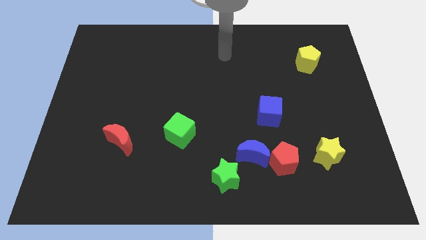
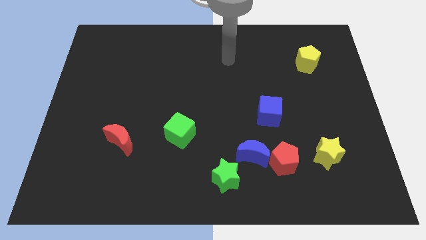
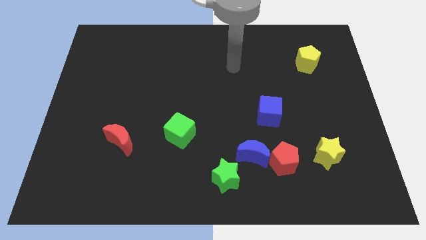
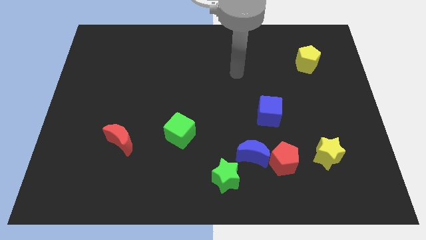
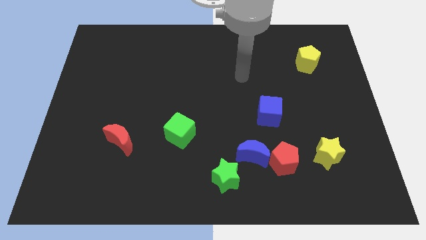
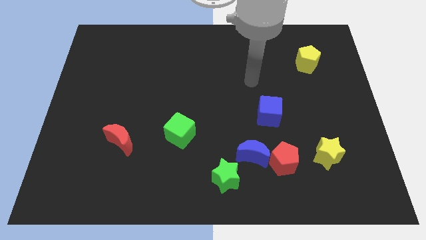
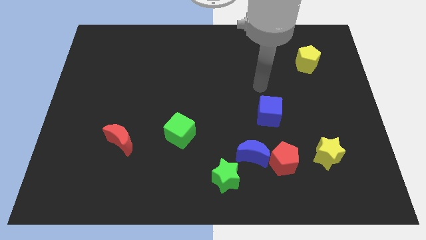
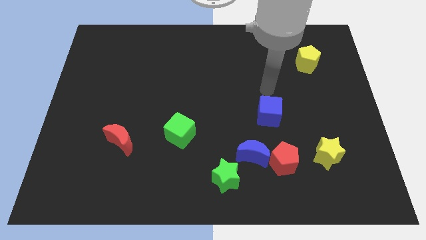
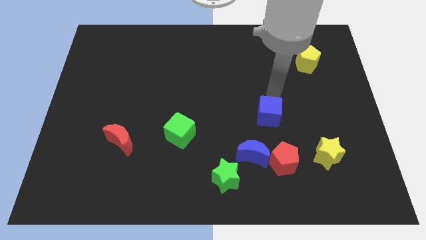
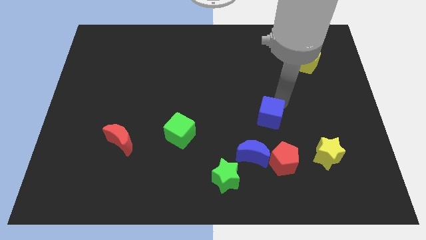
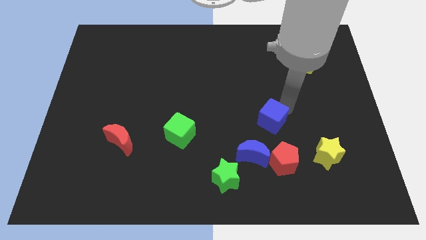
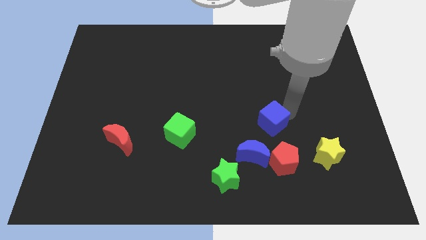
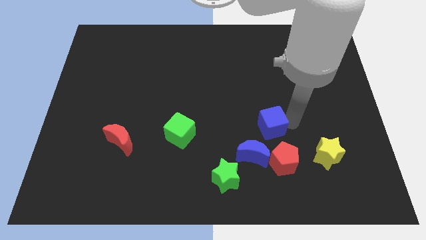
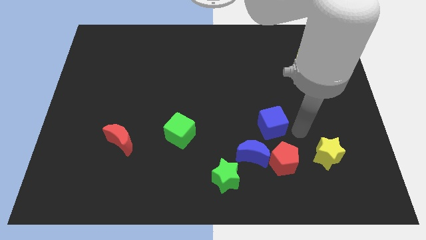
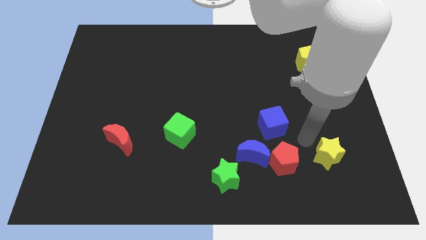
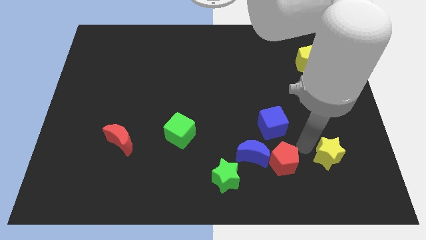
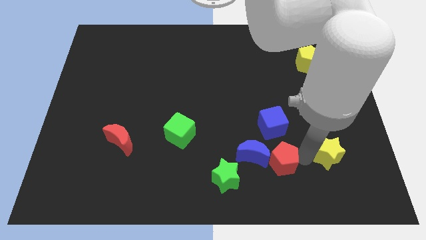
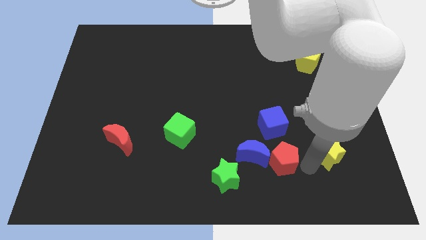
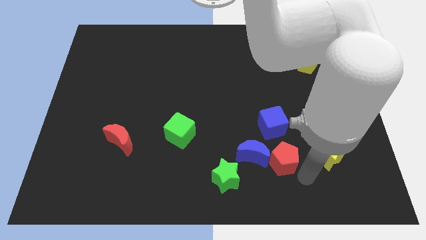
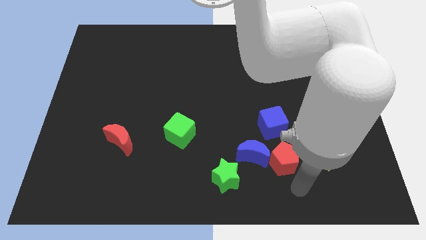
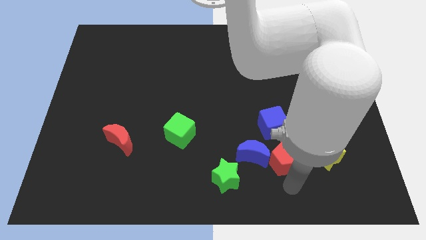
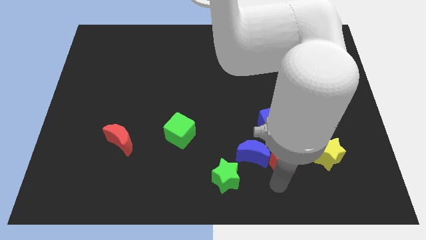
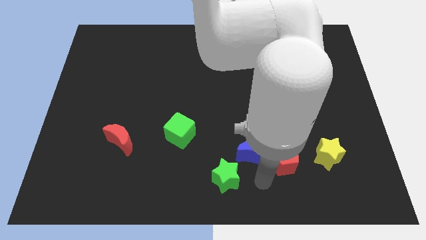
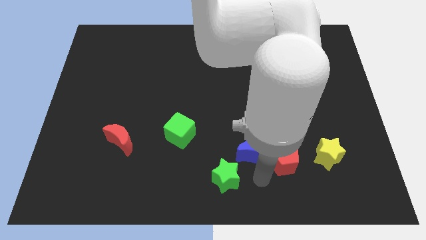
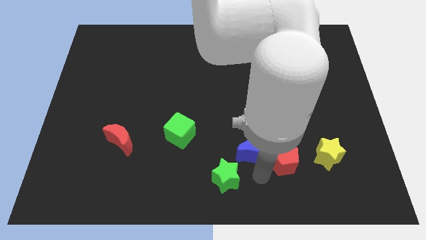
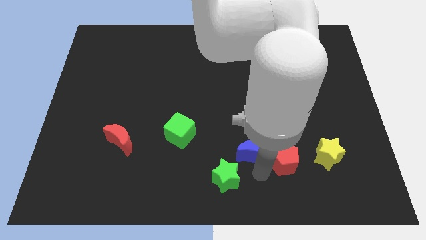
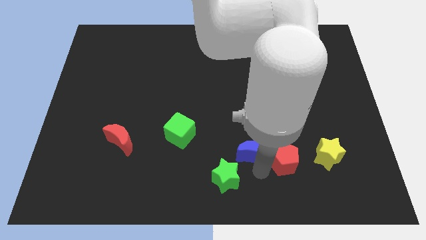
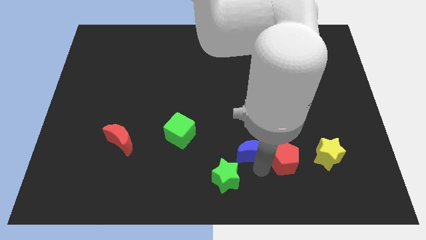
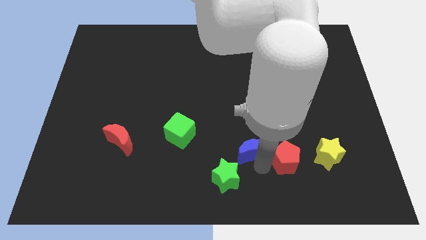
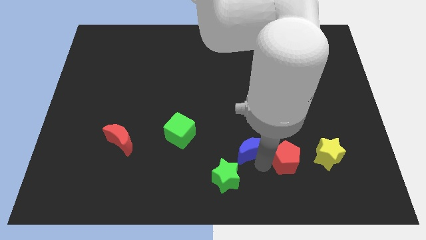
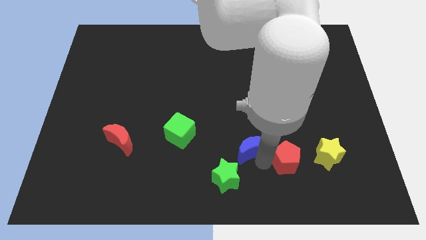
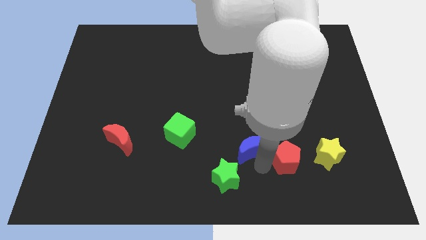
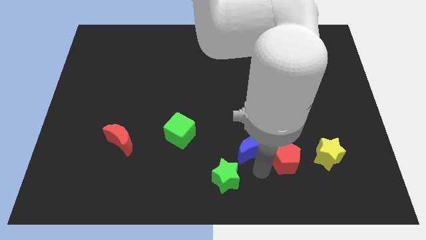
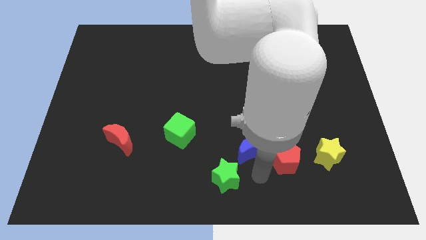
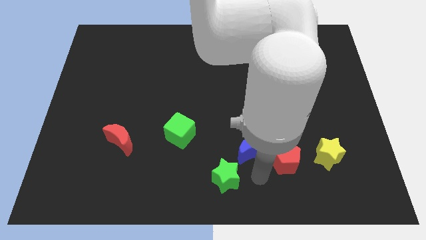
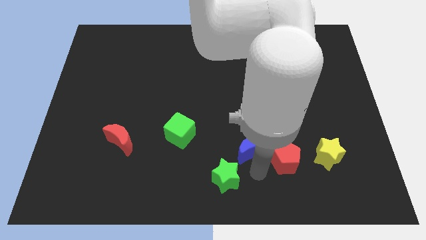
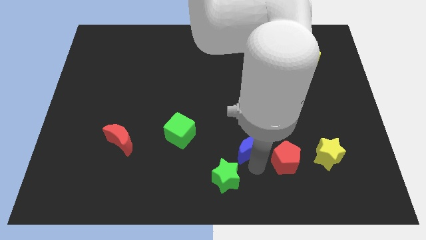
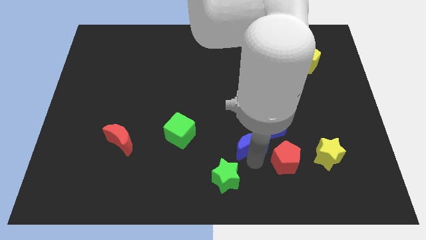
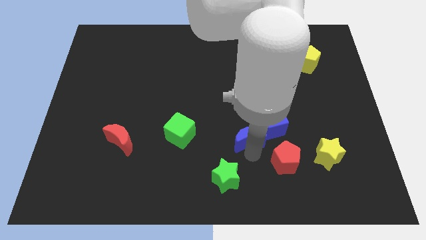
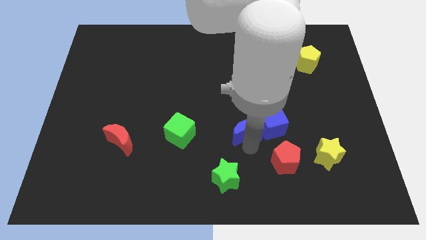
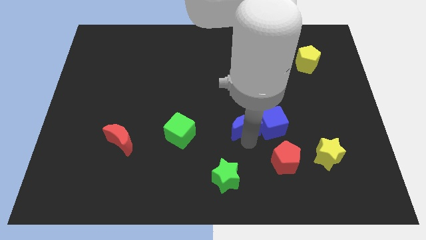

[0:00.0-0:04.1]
pull the blue moon apart from the red pentagon and green star

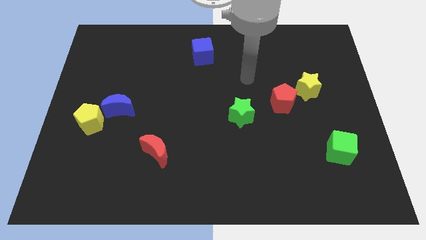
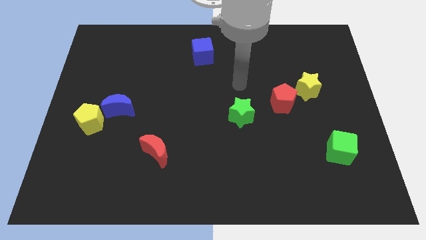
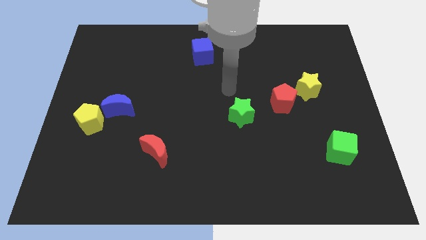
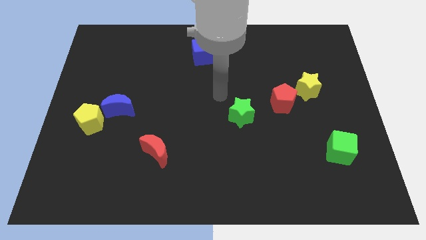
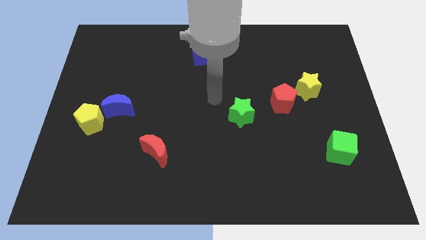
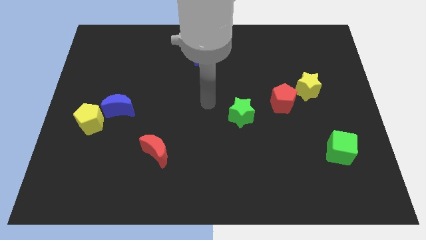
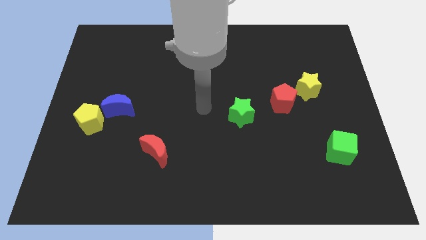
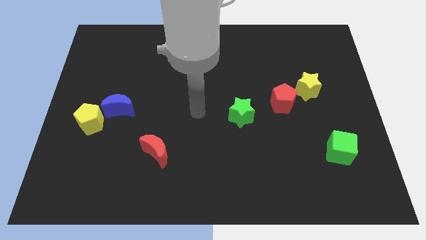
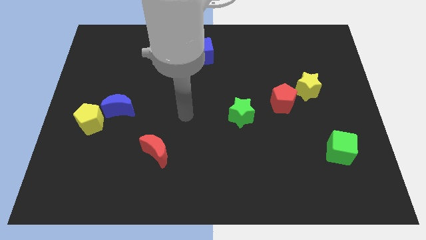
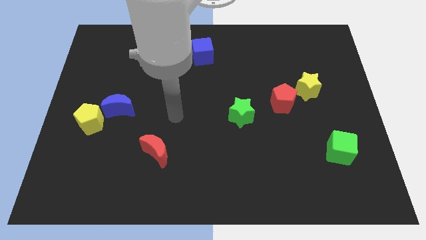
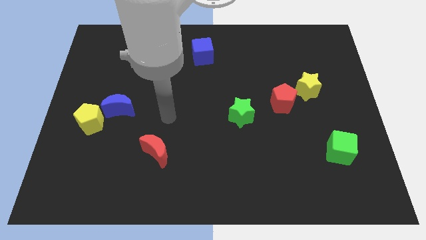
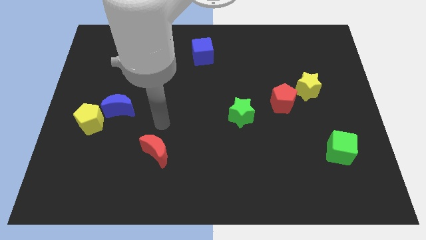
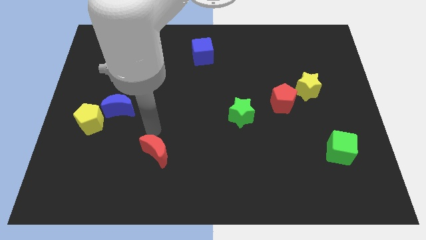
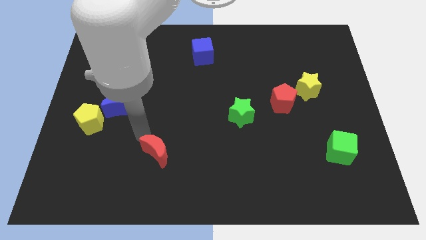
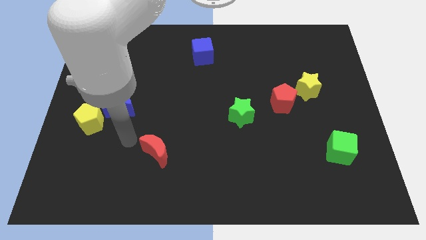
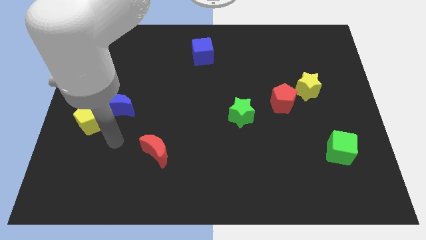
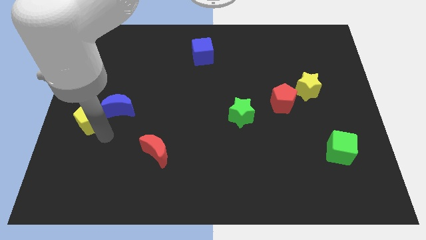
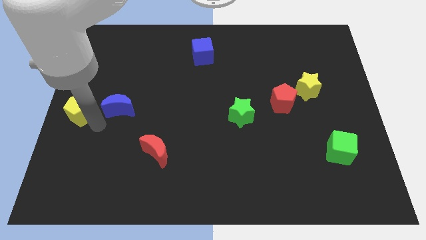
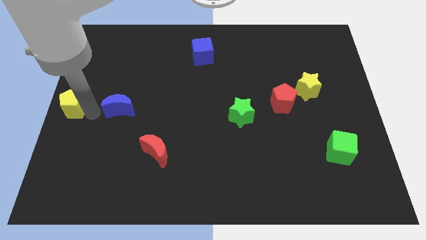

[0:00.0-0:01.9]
separate the blue moon from the yellow pentagon

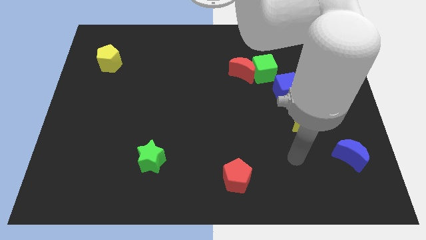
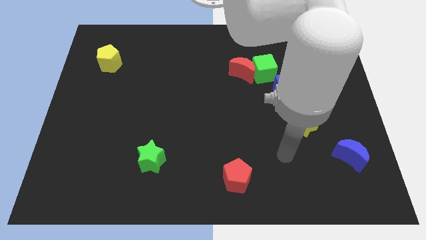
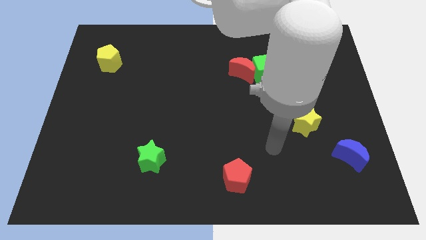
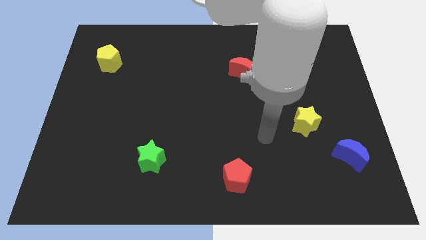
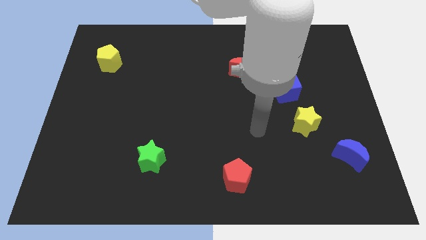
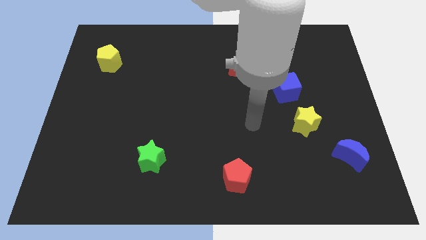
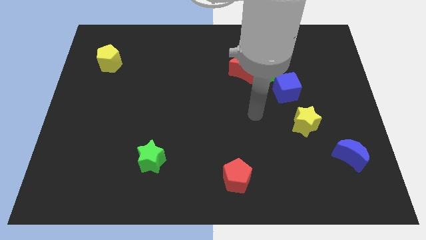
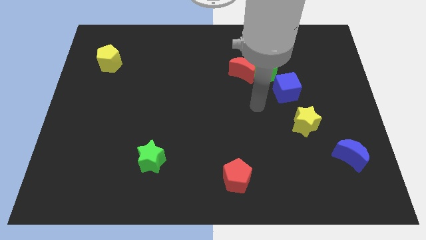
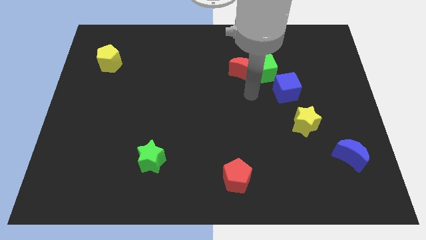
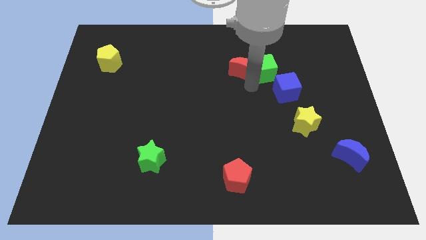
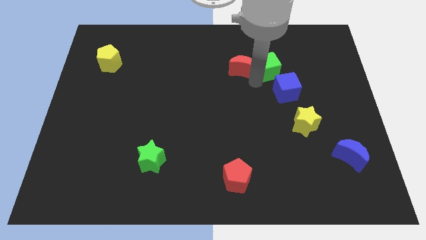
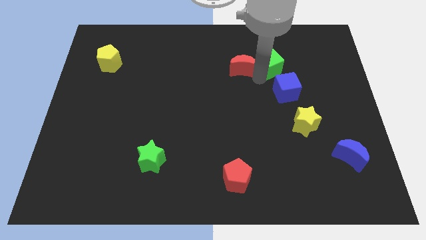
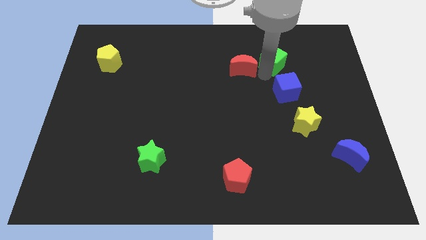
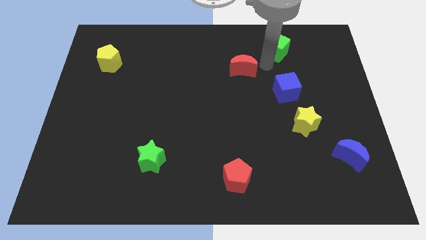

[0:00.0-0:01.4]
pull the red moon apart from the green cube

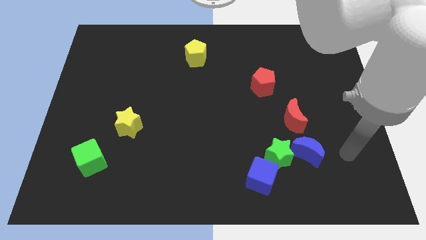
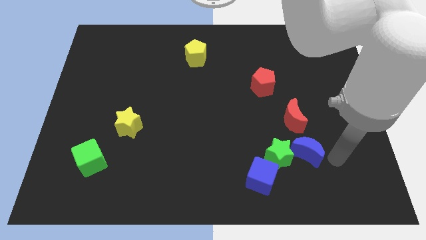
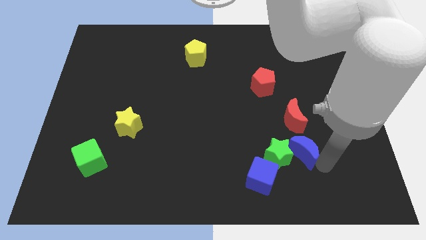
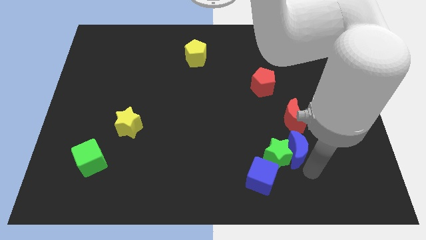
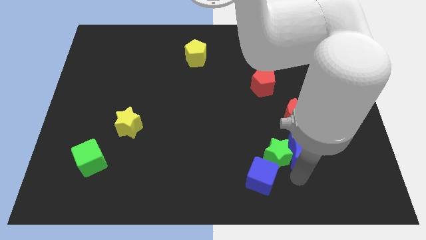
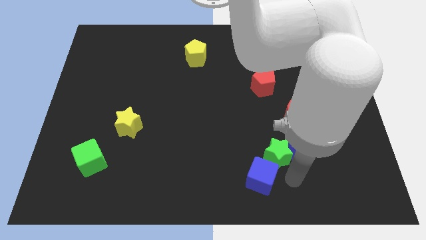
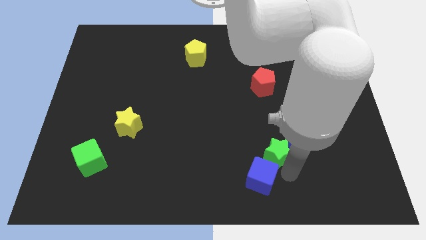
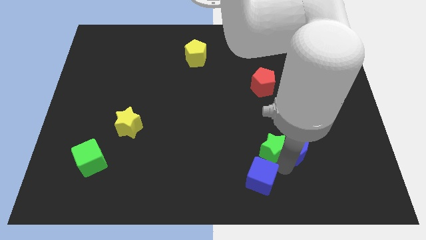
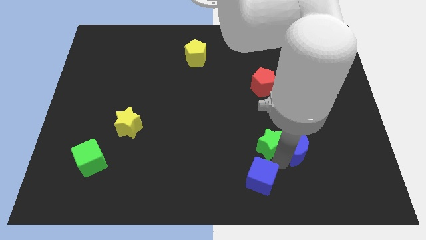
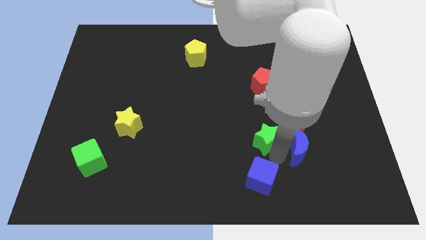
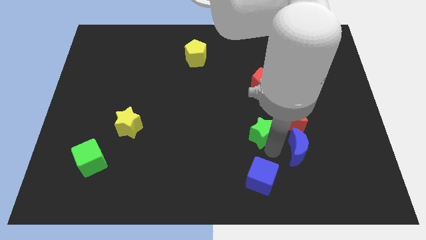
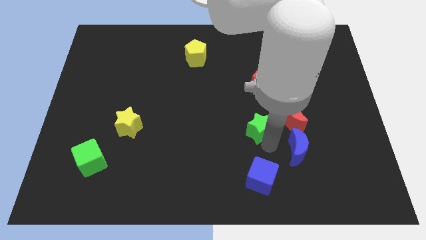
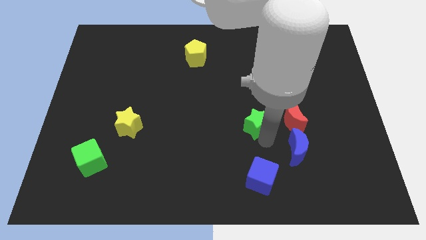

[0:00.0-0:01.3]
move the green star away from the blue moon and blue cube

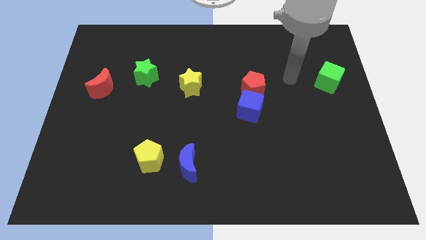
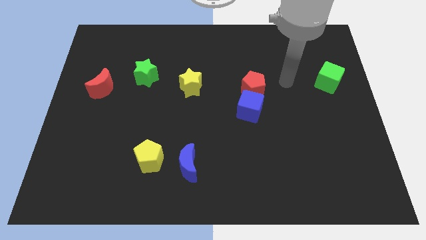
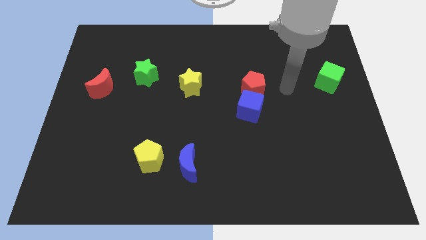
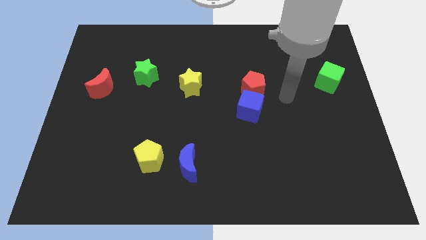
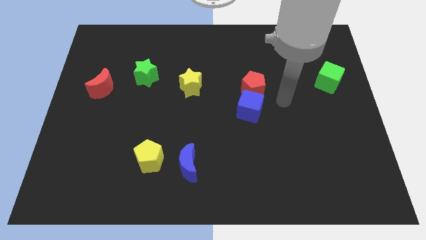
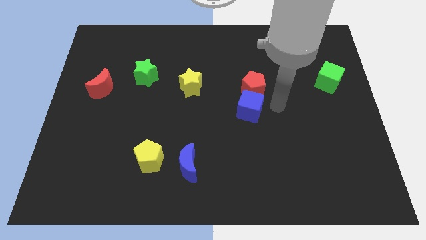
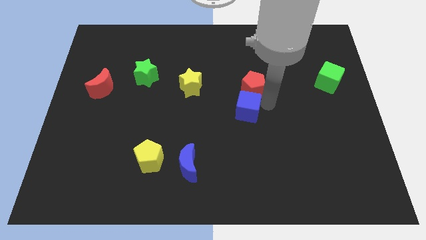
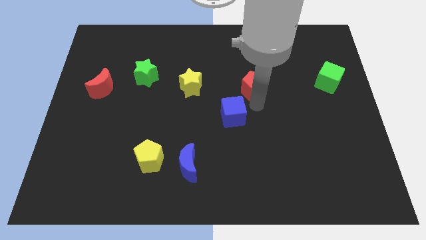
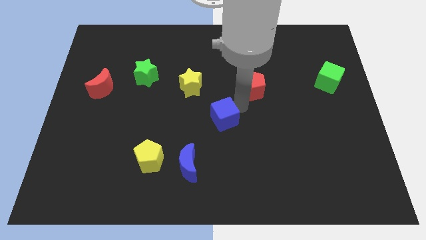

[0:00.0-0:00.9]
separate the red pentagon from the blue cube
